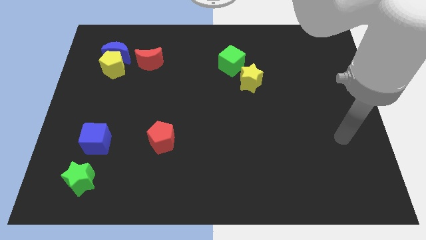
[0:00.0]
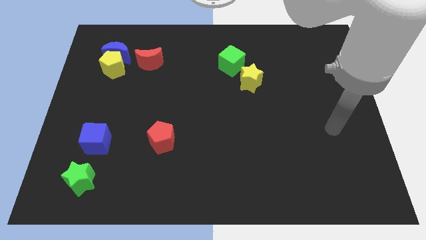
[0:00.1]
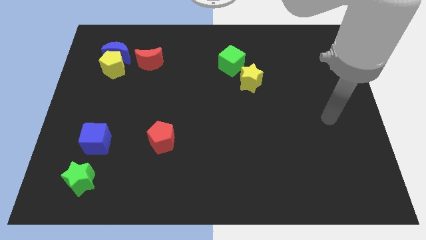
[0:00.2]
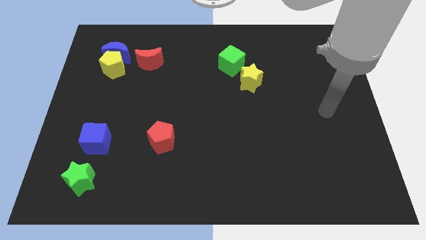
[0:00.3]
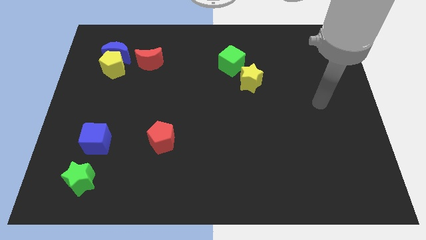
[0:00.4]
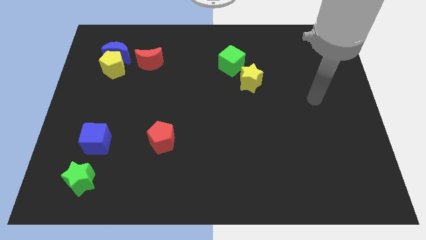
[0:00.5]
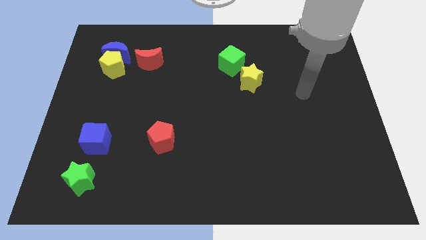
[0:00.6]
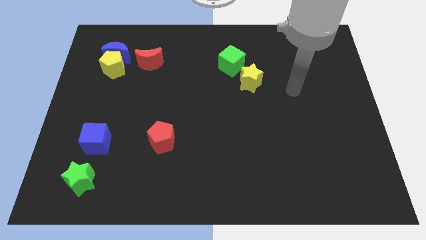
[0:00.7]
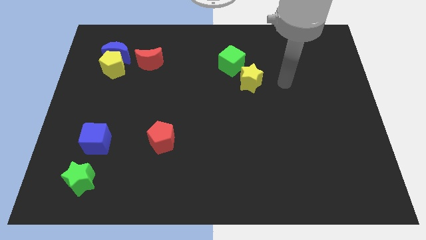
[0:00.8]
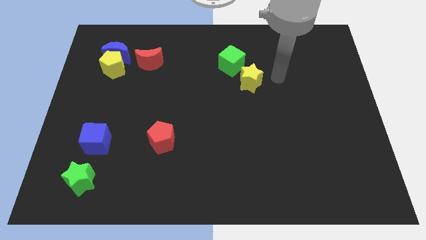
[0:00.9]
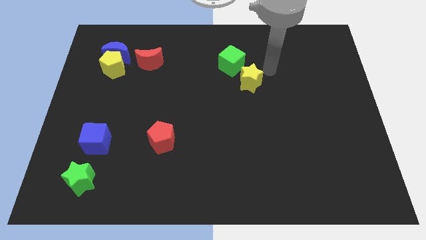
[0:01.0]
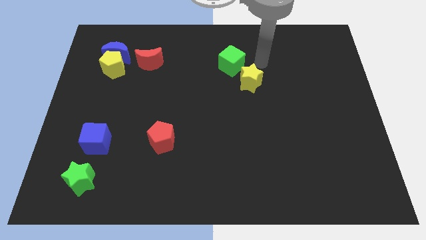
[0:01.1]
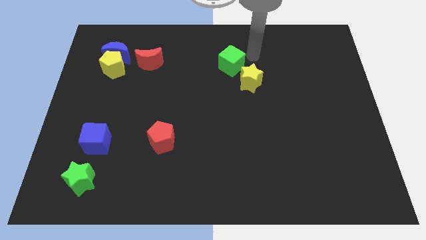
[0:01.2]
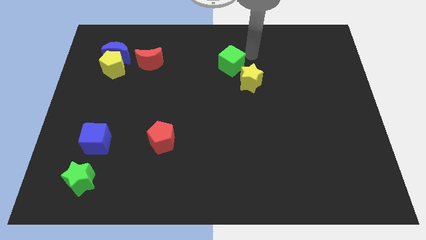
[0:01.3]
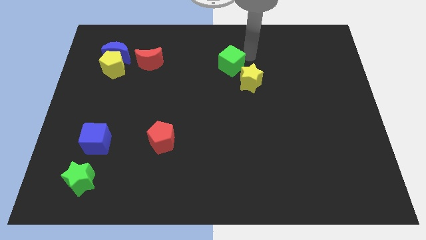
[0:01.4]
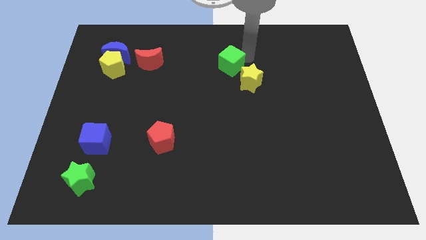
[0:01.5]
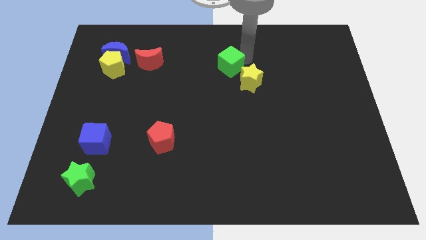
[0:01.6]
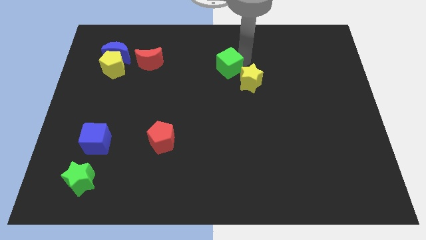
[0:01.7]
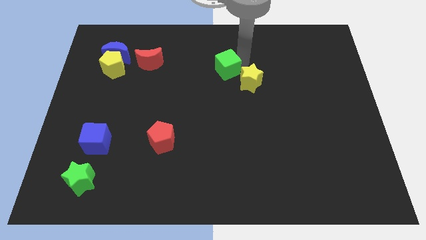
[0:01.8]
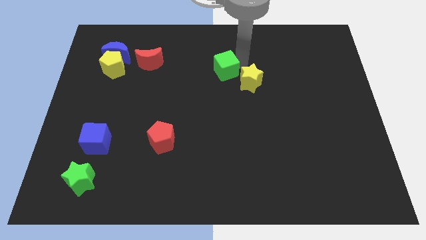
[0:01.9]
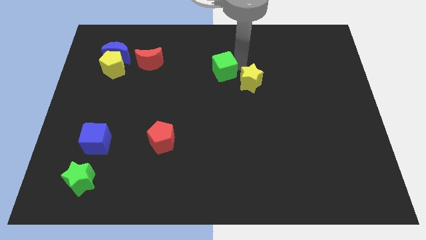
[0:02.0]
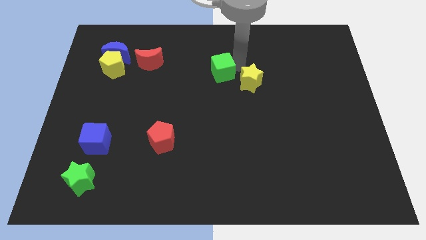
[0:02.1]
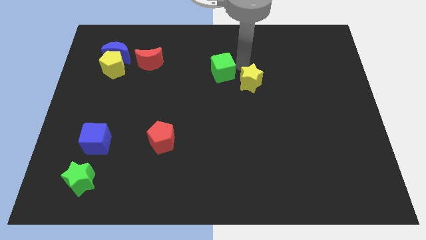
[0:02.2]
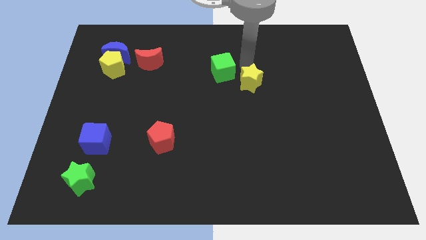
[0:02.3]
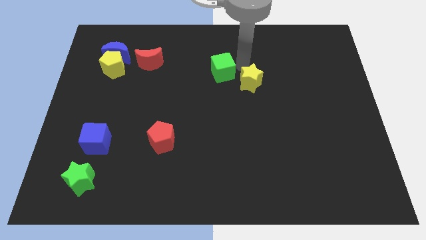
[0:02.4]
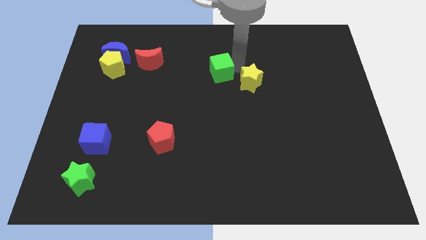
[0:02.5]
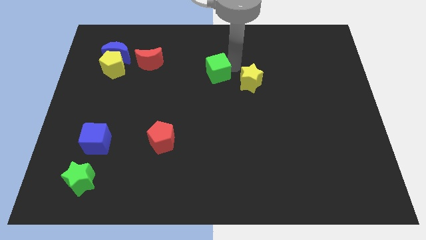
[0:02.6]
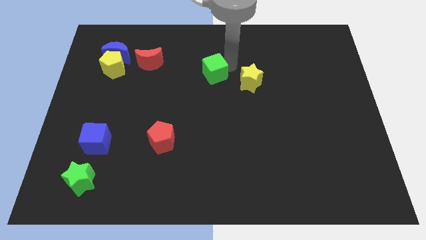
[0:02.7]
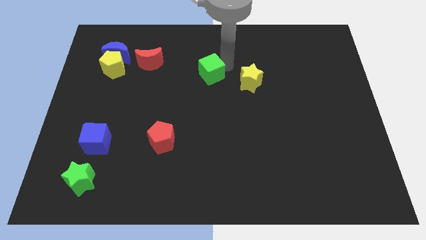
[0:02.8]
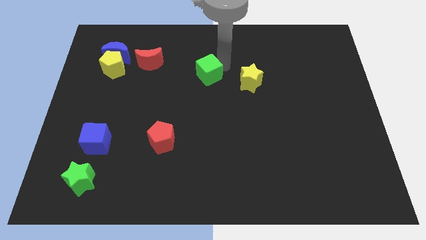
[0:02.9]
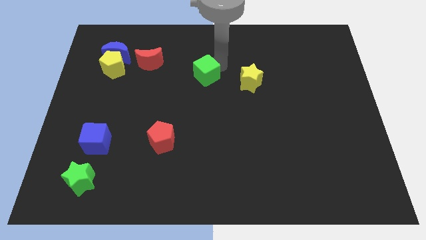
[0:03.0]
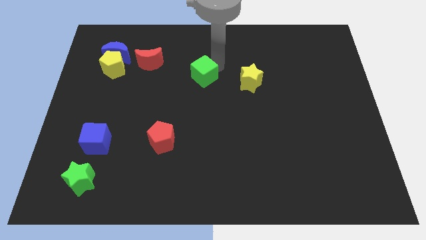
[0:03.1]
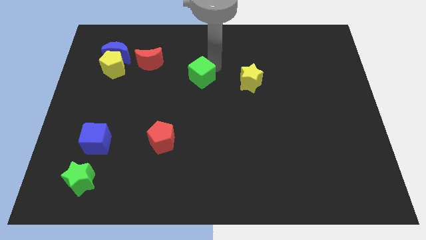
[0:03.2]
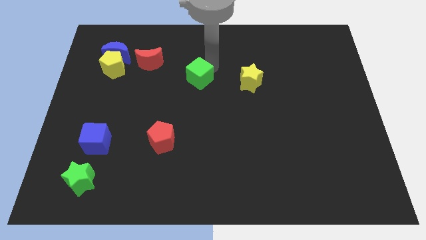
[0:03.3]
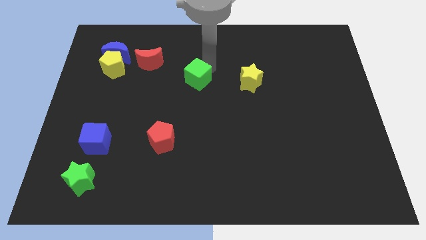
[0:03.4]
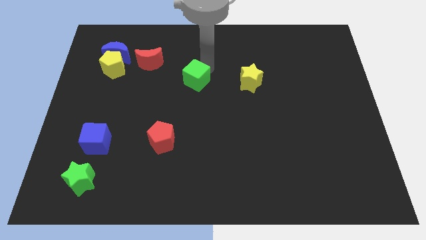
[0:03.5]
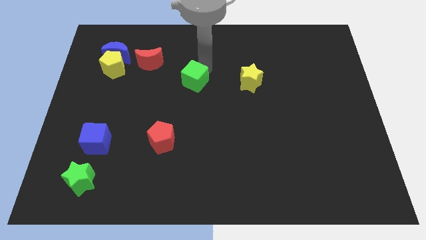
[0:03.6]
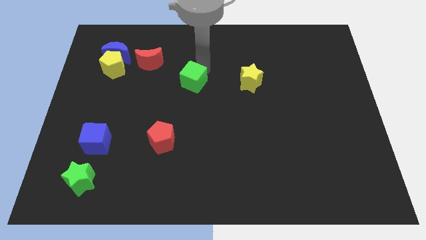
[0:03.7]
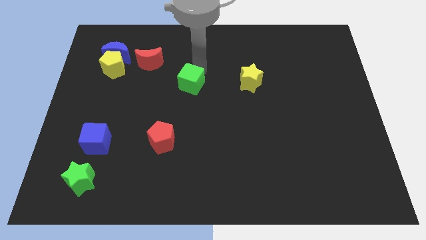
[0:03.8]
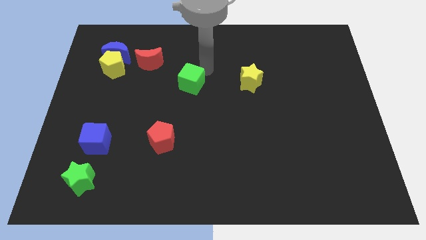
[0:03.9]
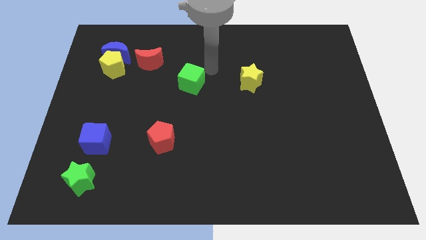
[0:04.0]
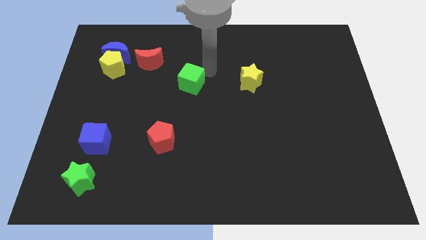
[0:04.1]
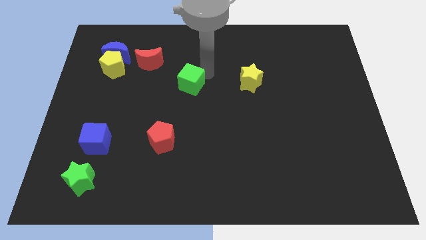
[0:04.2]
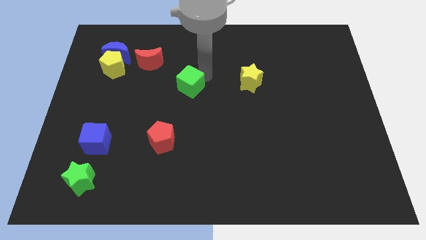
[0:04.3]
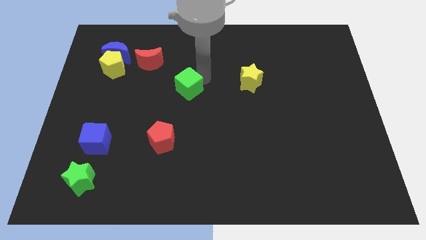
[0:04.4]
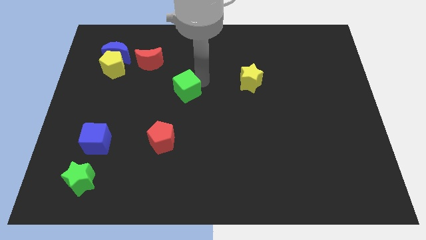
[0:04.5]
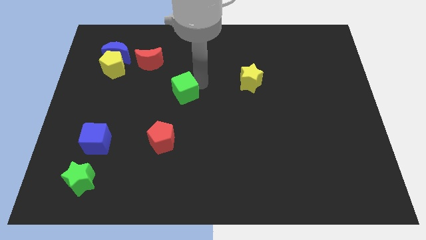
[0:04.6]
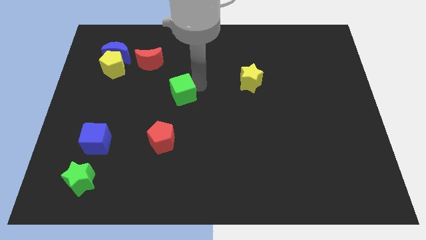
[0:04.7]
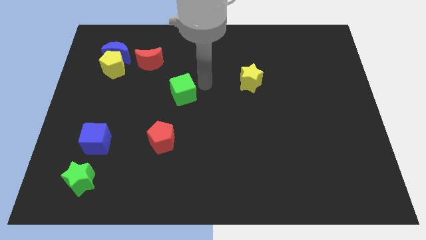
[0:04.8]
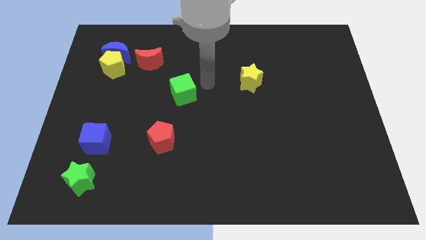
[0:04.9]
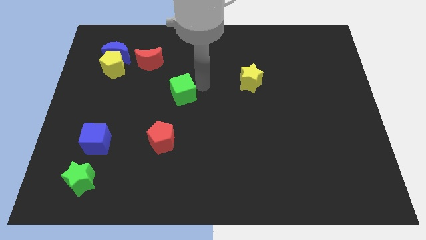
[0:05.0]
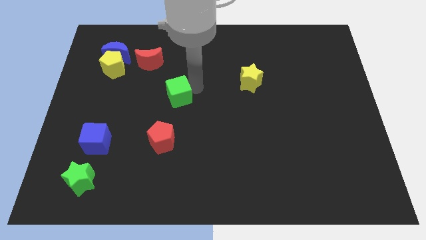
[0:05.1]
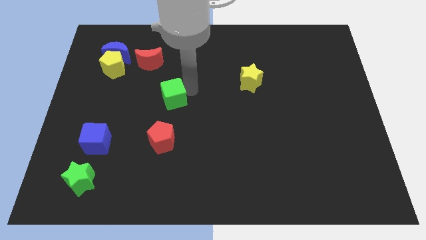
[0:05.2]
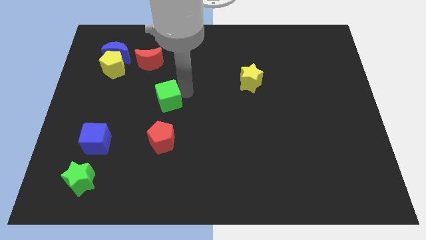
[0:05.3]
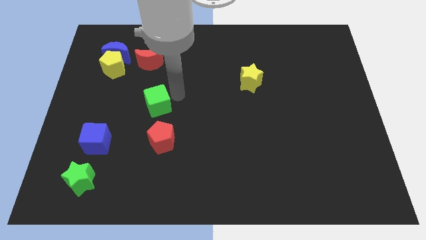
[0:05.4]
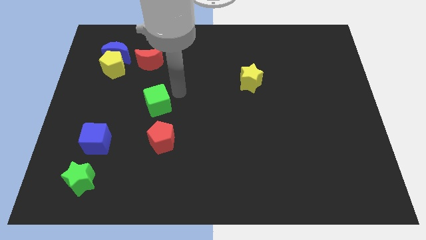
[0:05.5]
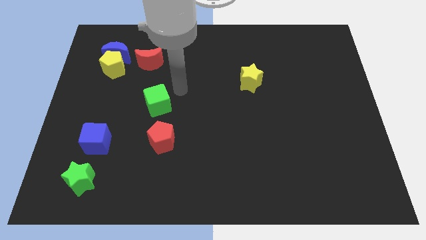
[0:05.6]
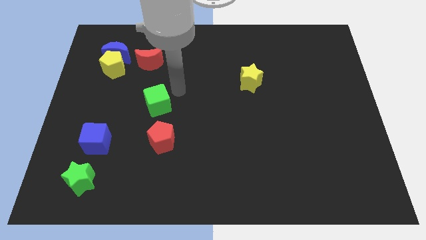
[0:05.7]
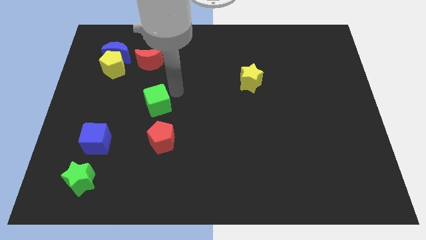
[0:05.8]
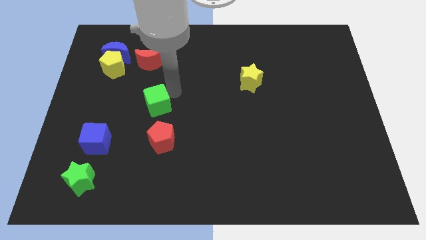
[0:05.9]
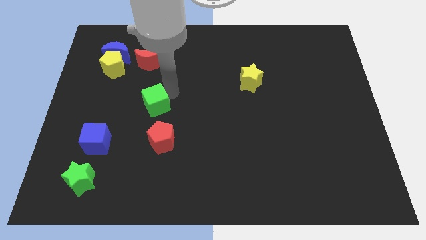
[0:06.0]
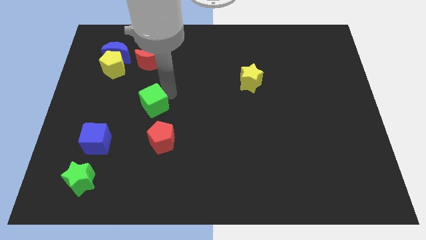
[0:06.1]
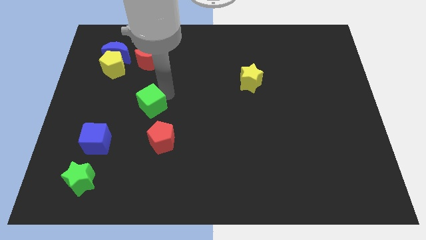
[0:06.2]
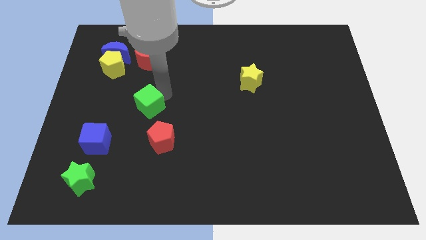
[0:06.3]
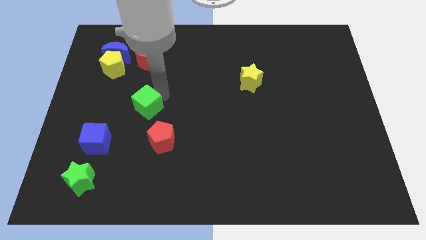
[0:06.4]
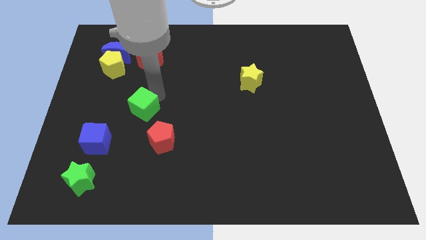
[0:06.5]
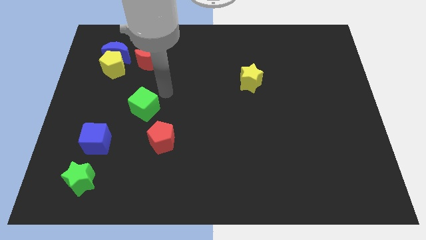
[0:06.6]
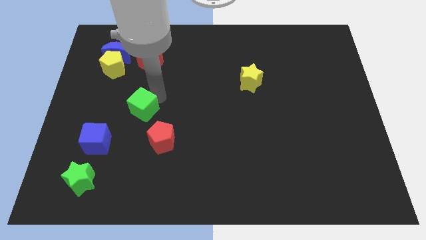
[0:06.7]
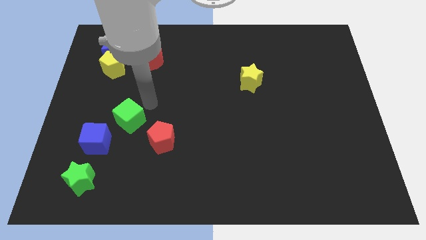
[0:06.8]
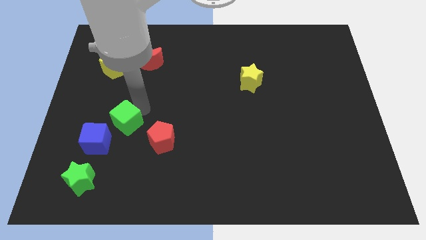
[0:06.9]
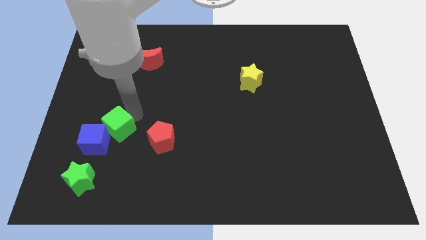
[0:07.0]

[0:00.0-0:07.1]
put the green cube towards the blue cube
